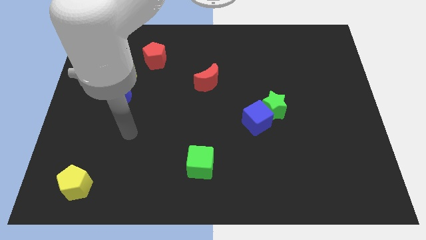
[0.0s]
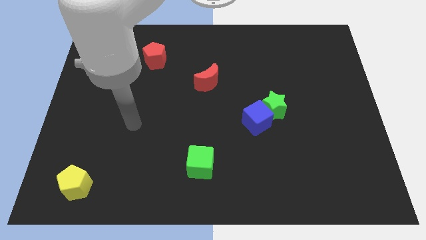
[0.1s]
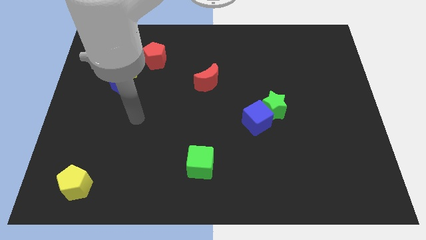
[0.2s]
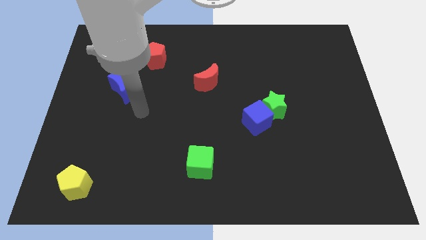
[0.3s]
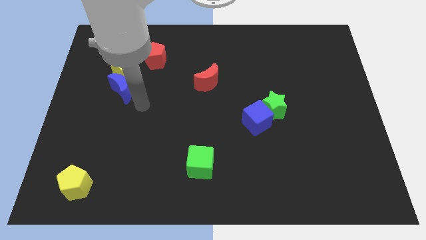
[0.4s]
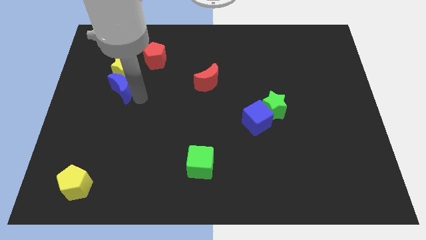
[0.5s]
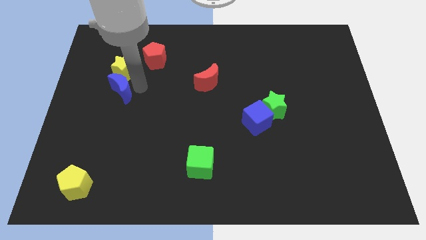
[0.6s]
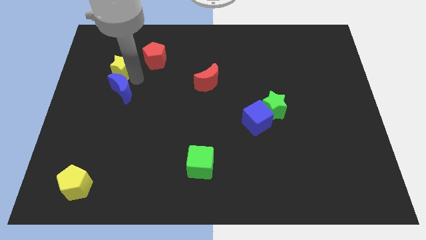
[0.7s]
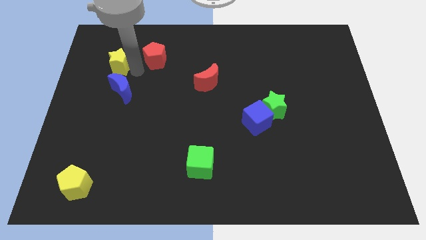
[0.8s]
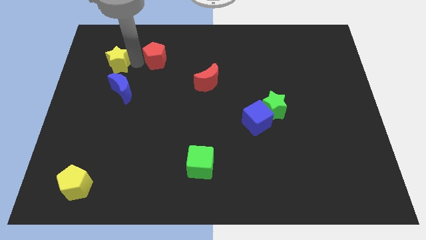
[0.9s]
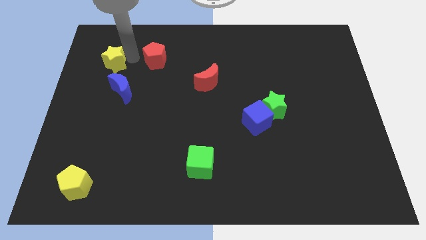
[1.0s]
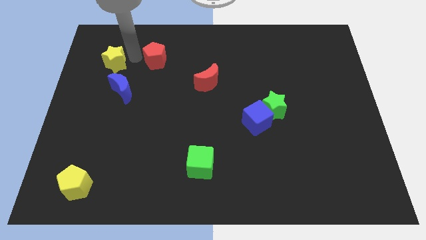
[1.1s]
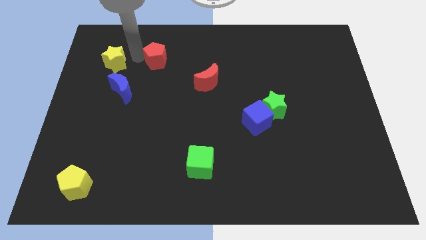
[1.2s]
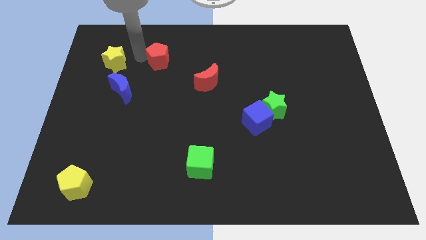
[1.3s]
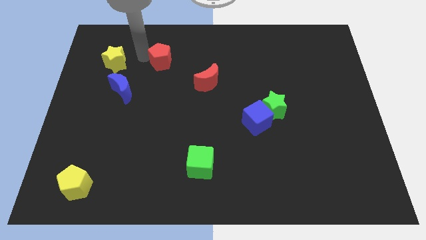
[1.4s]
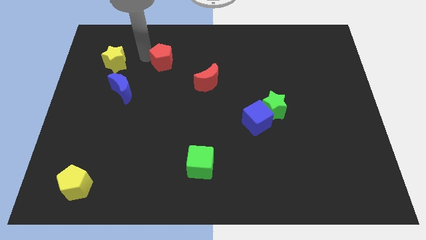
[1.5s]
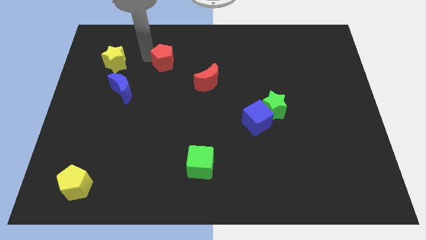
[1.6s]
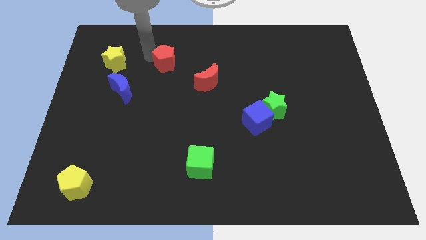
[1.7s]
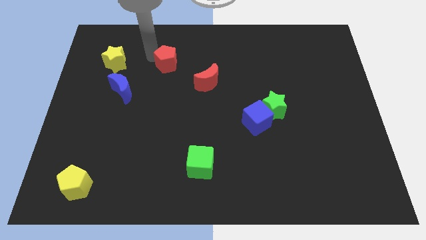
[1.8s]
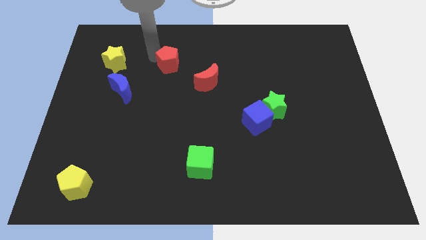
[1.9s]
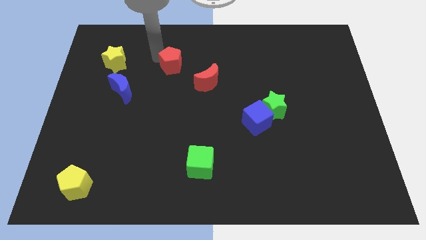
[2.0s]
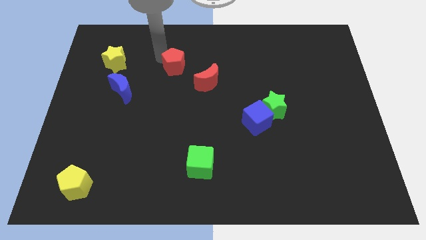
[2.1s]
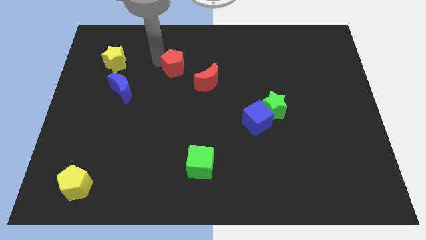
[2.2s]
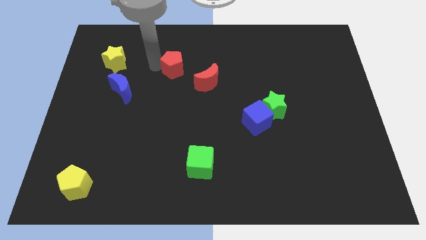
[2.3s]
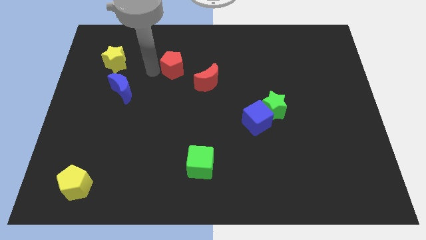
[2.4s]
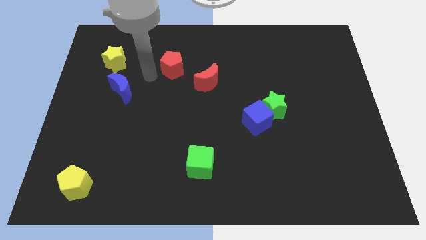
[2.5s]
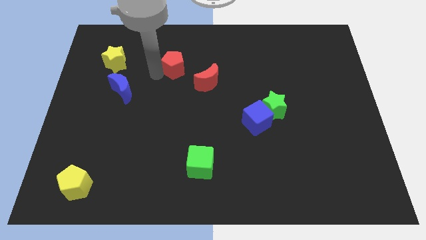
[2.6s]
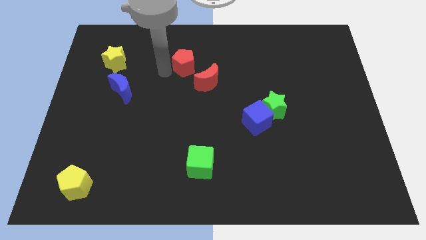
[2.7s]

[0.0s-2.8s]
slightly move the red pentagon right

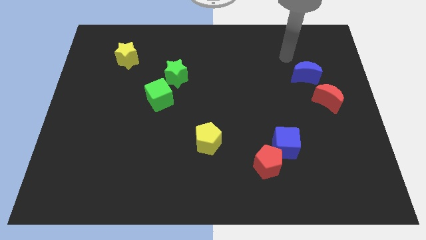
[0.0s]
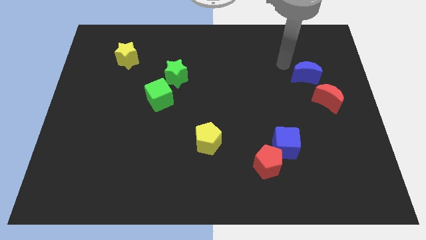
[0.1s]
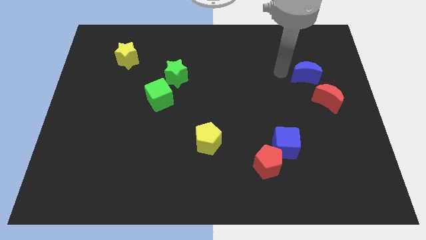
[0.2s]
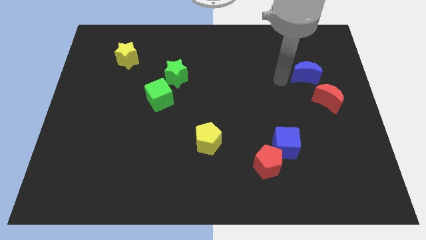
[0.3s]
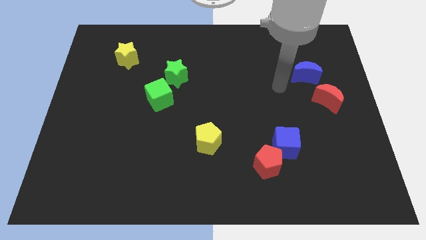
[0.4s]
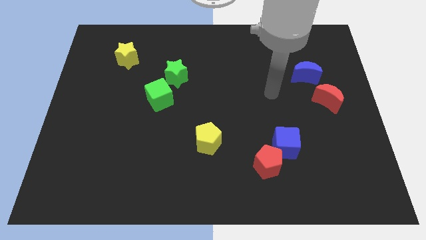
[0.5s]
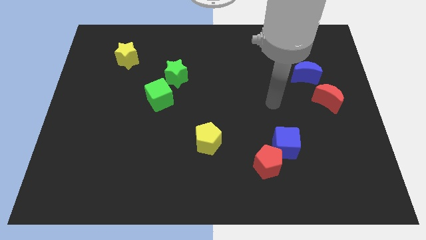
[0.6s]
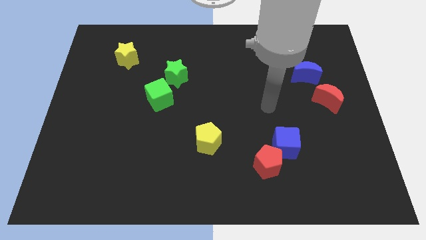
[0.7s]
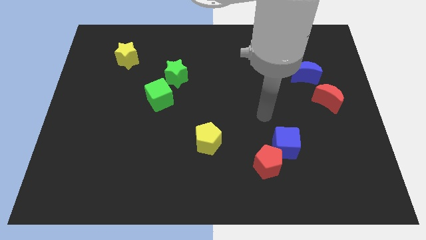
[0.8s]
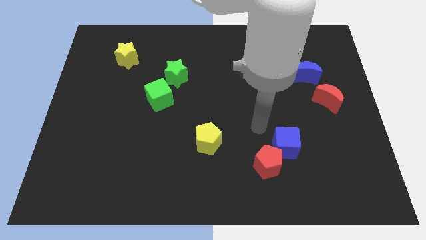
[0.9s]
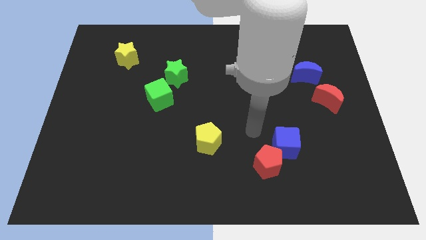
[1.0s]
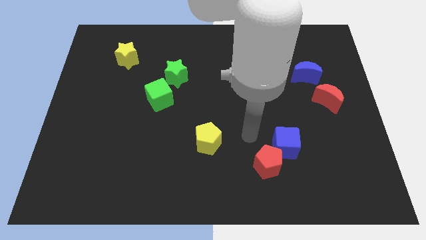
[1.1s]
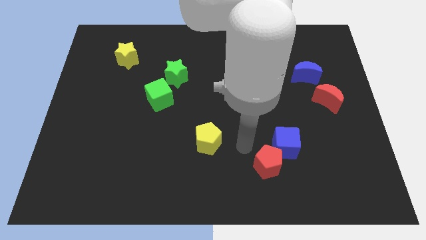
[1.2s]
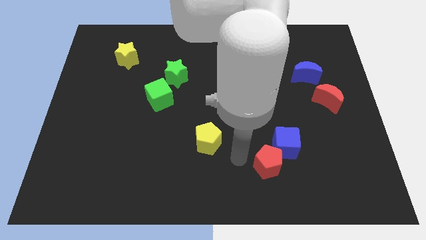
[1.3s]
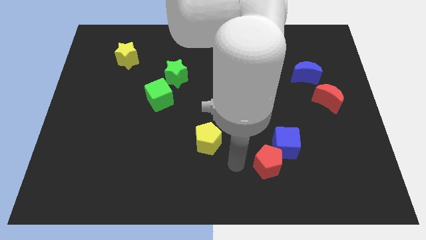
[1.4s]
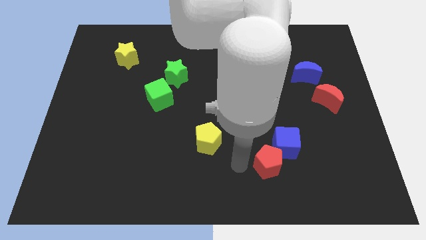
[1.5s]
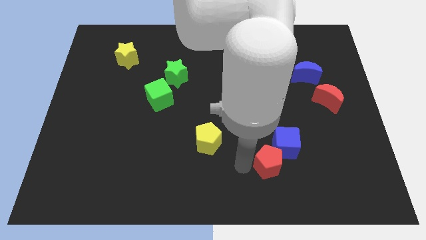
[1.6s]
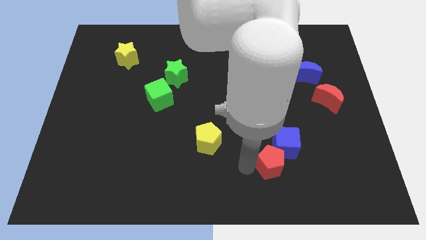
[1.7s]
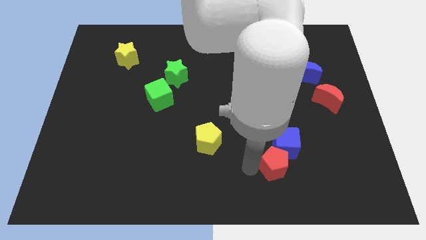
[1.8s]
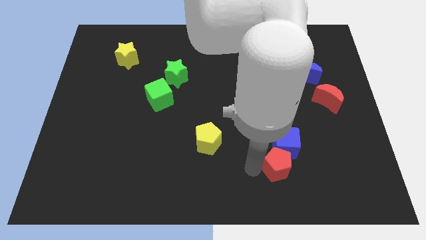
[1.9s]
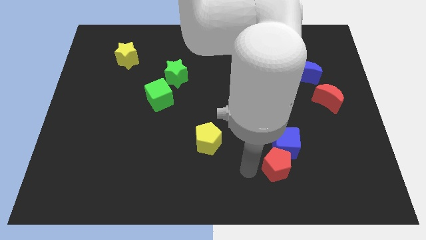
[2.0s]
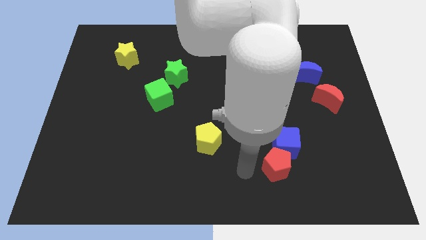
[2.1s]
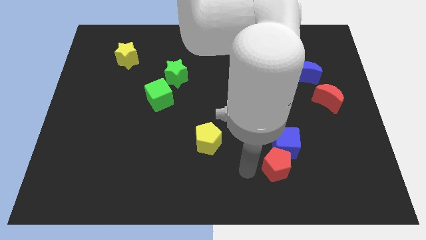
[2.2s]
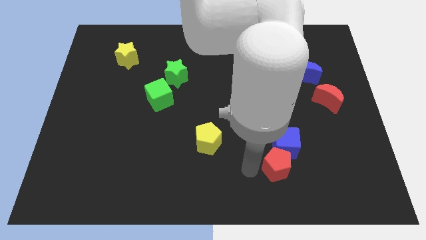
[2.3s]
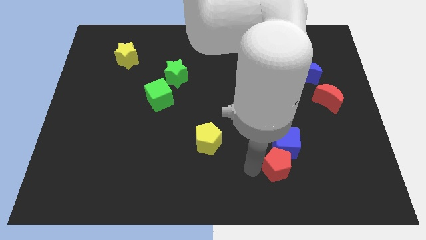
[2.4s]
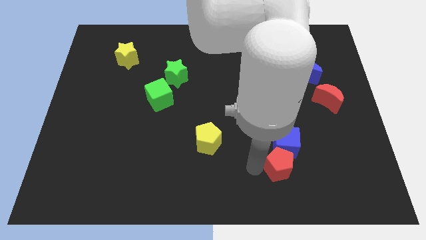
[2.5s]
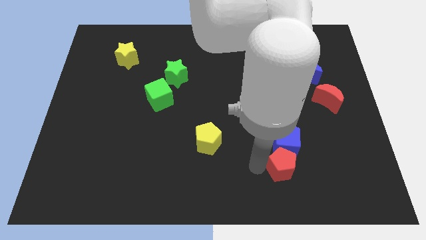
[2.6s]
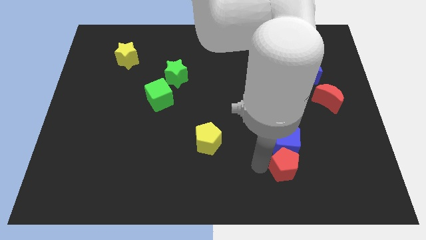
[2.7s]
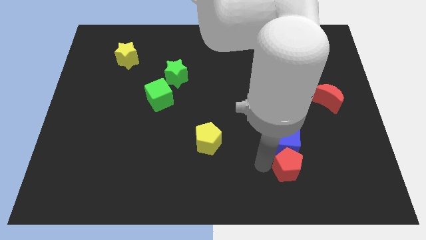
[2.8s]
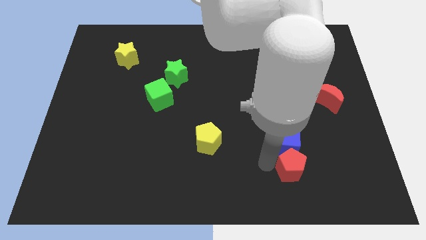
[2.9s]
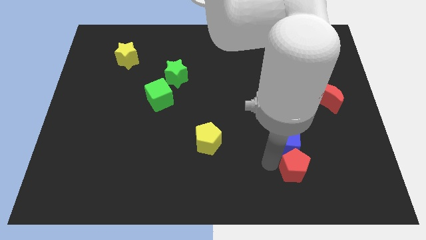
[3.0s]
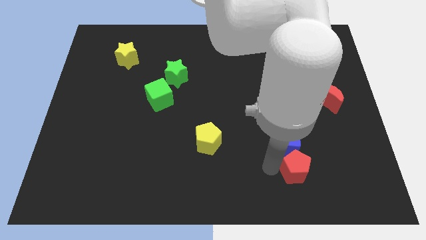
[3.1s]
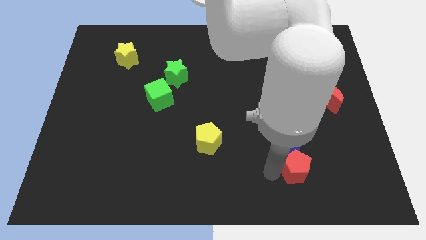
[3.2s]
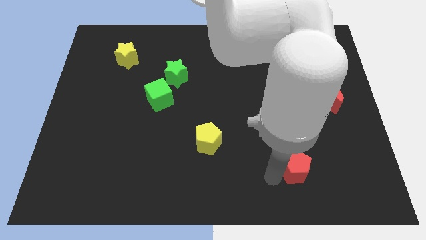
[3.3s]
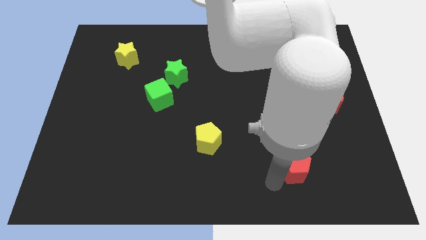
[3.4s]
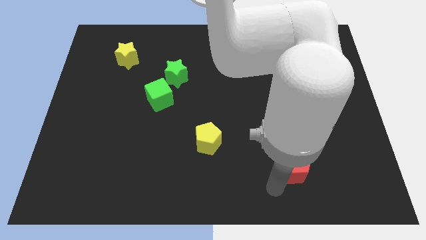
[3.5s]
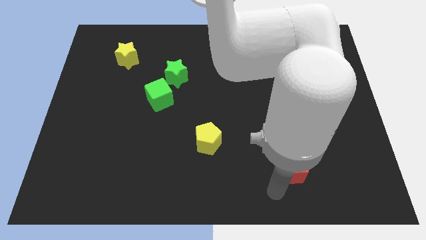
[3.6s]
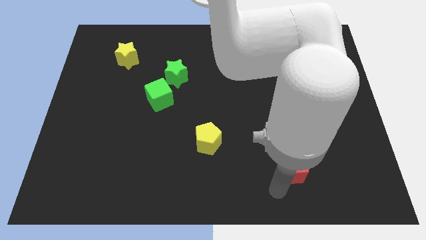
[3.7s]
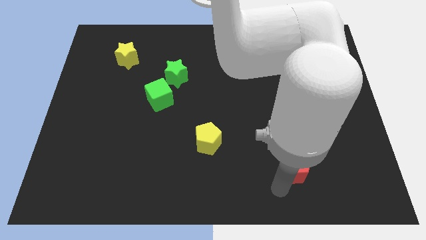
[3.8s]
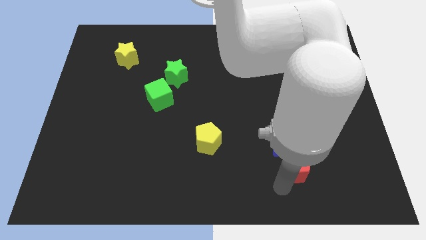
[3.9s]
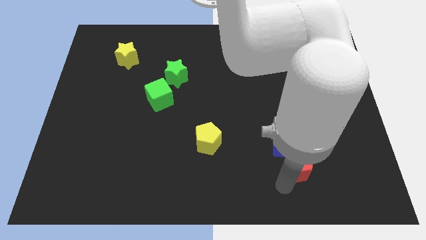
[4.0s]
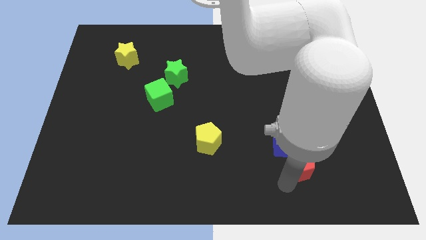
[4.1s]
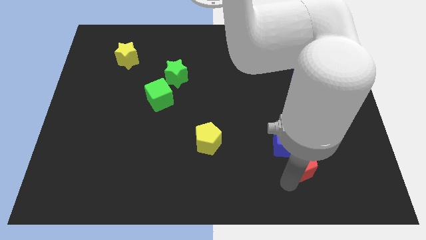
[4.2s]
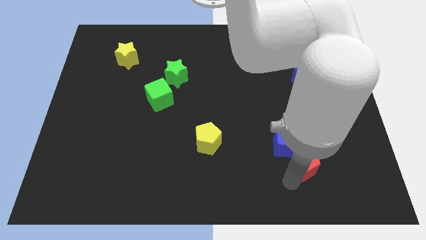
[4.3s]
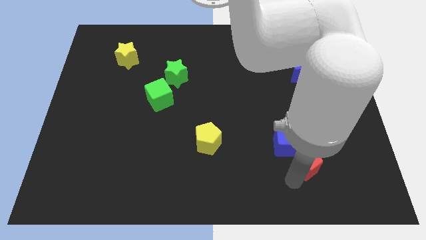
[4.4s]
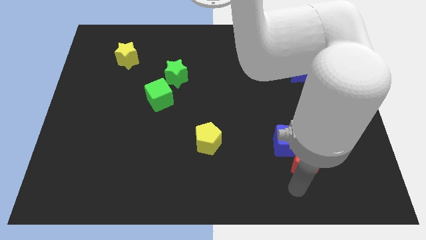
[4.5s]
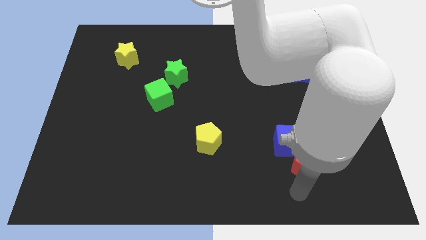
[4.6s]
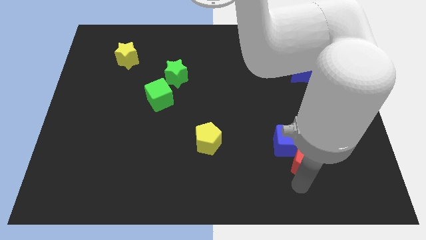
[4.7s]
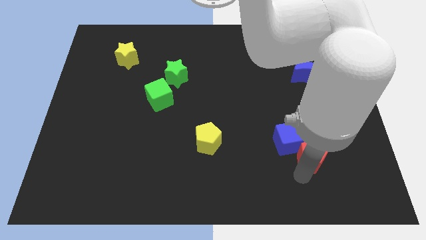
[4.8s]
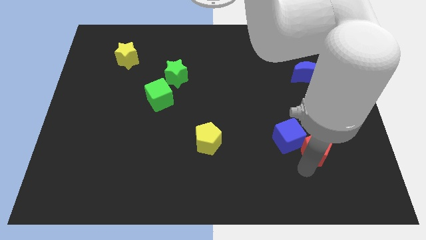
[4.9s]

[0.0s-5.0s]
move the red pentagon a little upwards and to the right diagonally

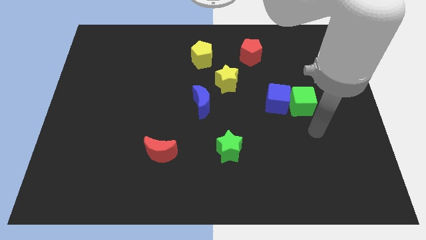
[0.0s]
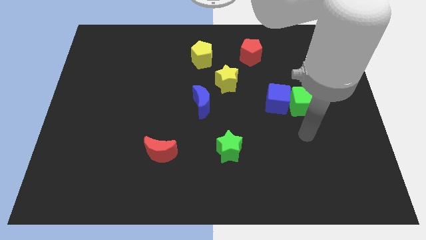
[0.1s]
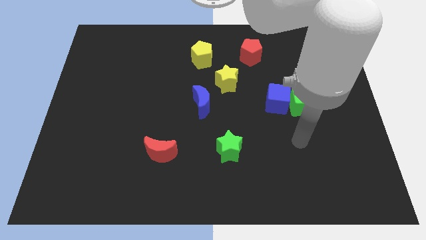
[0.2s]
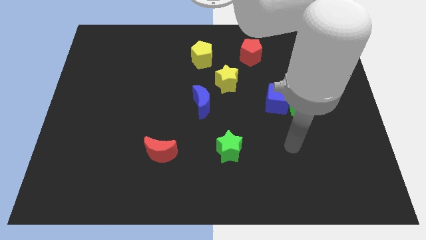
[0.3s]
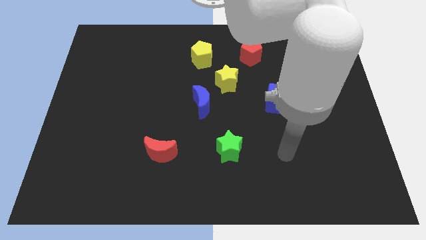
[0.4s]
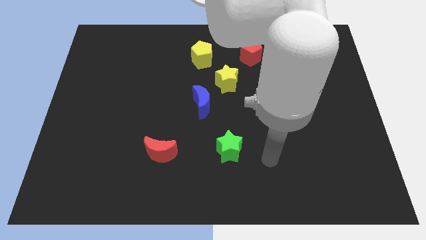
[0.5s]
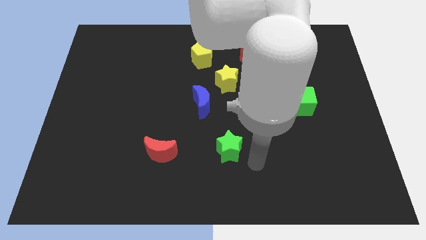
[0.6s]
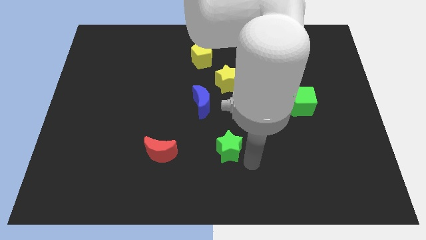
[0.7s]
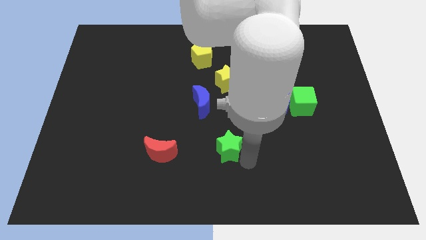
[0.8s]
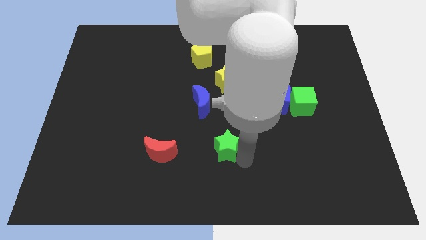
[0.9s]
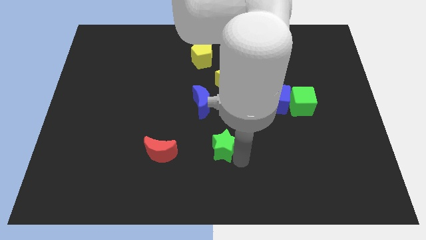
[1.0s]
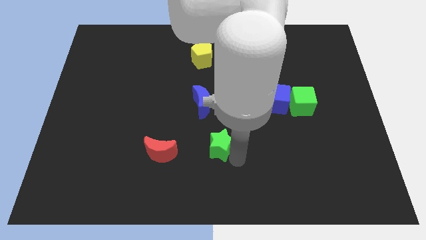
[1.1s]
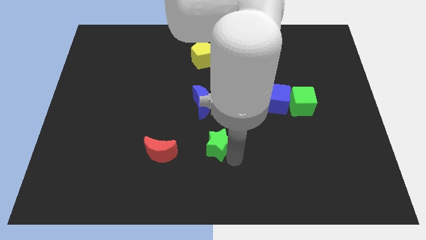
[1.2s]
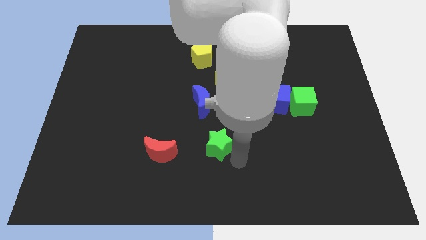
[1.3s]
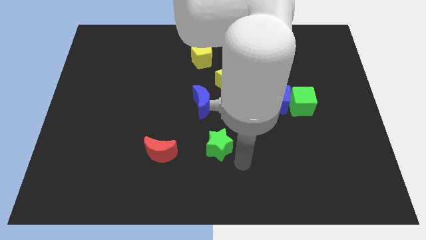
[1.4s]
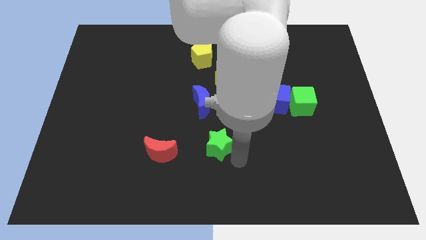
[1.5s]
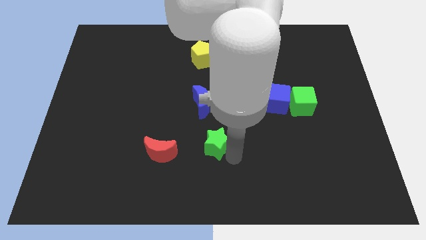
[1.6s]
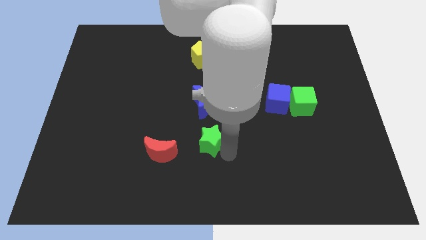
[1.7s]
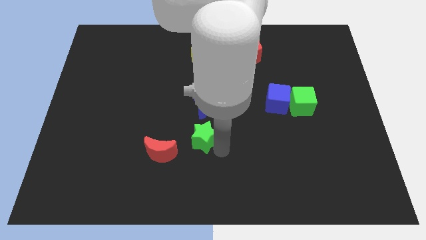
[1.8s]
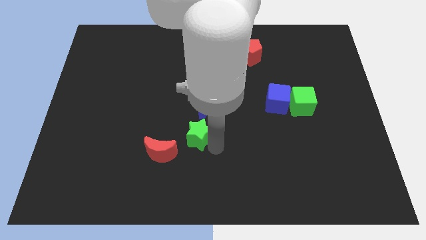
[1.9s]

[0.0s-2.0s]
slide the green star a little bit diagonally upwards and left
